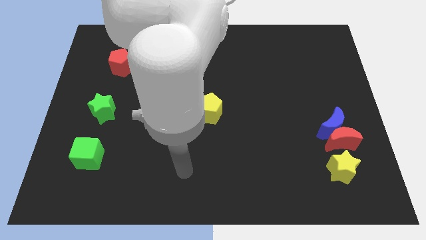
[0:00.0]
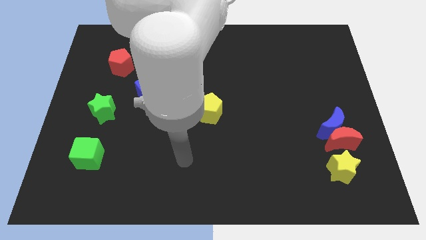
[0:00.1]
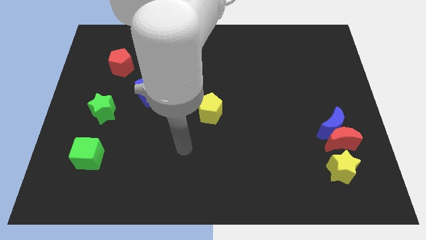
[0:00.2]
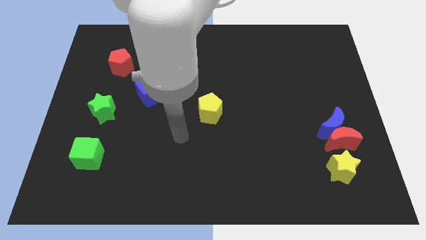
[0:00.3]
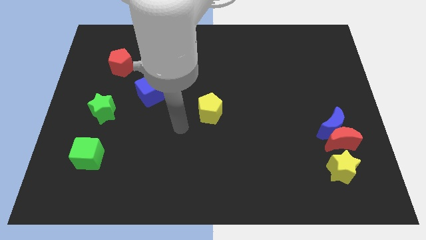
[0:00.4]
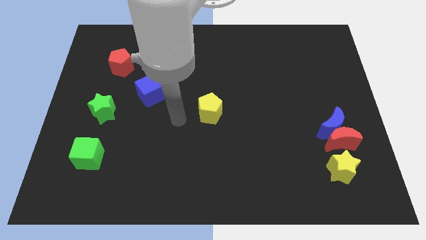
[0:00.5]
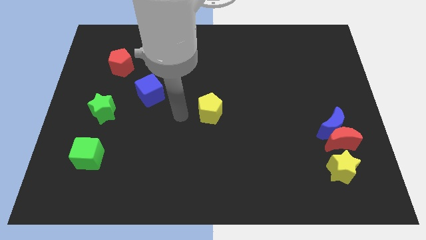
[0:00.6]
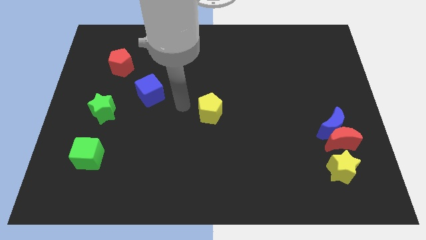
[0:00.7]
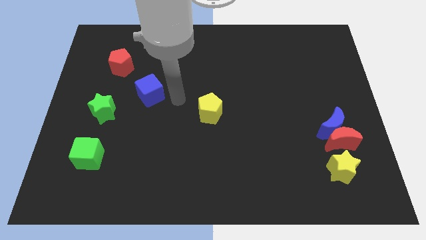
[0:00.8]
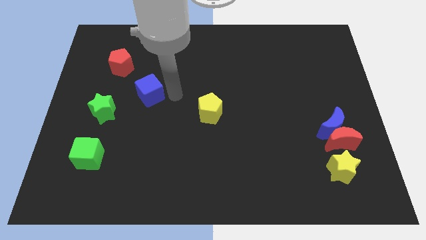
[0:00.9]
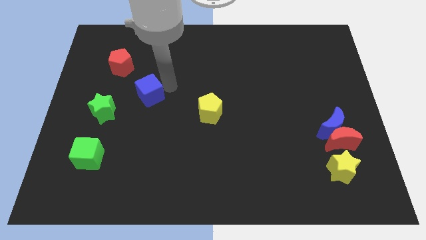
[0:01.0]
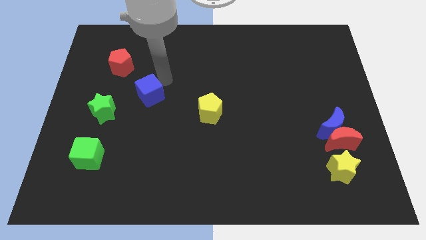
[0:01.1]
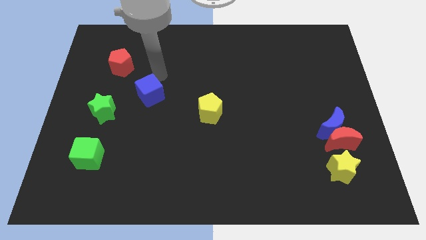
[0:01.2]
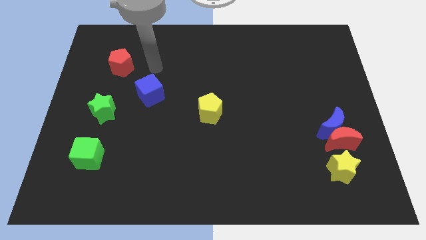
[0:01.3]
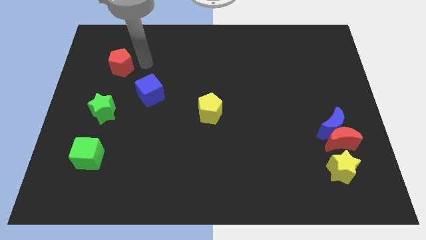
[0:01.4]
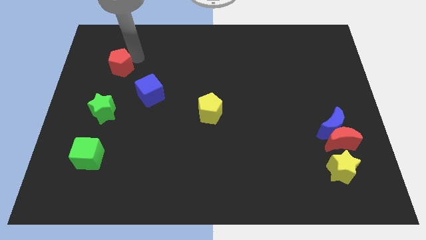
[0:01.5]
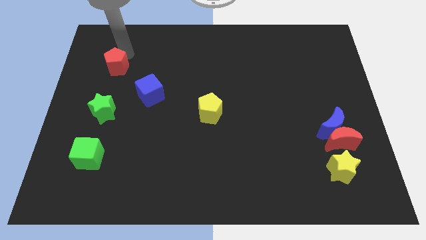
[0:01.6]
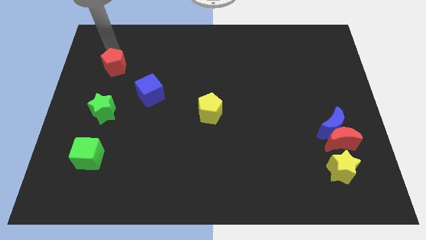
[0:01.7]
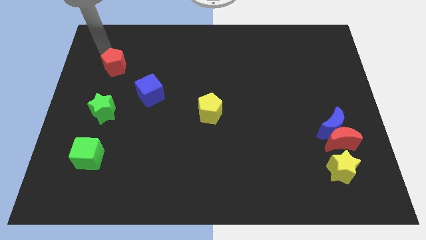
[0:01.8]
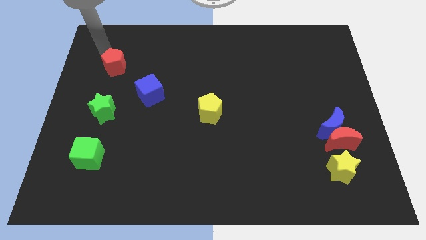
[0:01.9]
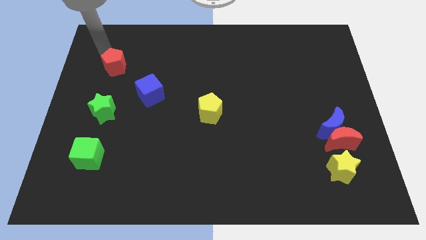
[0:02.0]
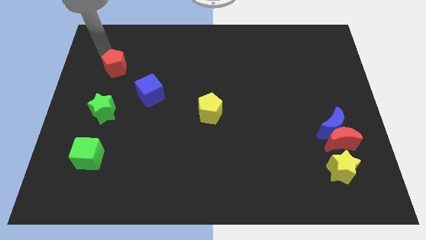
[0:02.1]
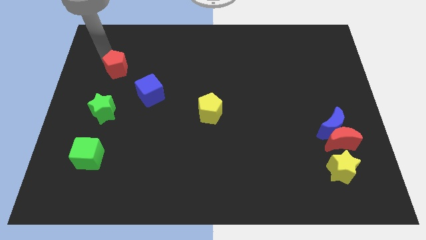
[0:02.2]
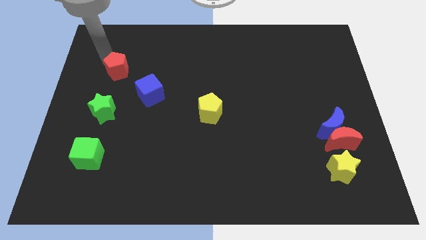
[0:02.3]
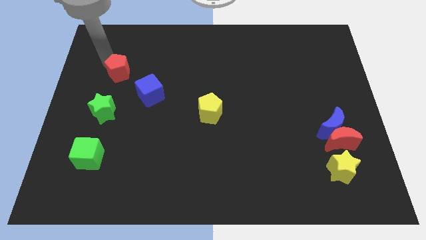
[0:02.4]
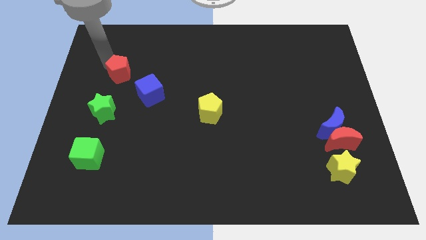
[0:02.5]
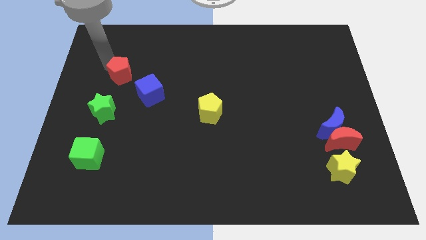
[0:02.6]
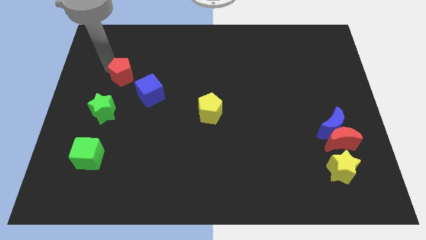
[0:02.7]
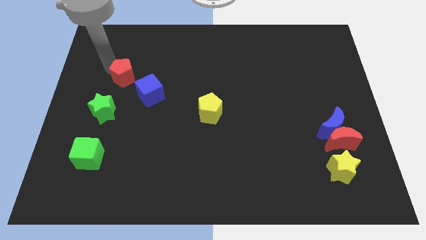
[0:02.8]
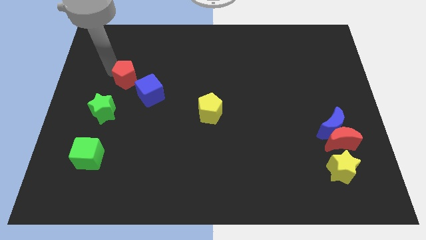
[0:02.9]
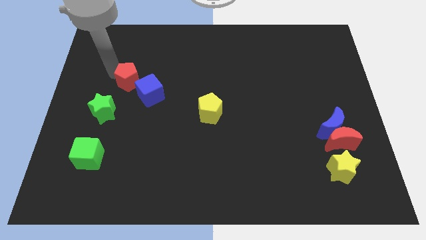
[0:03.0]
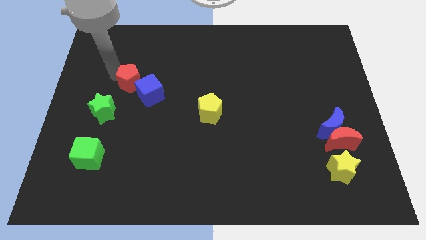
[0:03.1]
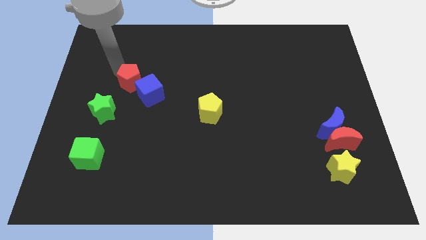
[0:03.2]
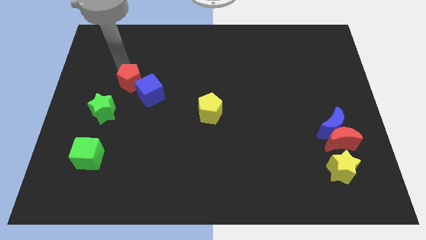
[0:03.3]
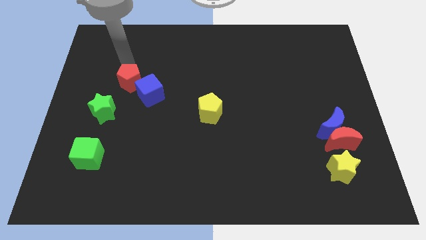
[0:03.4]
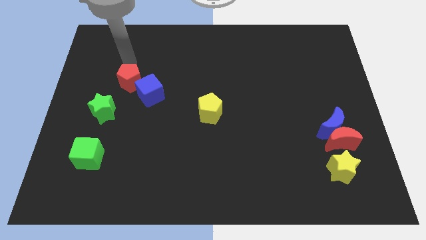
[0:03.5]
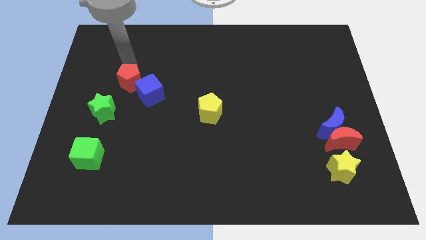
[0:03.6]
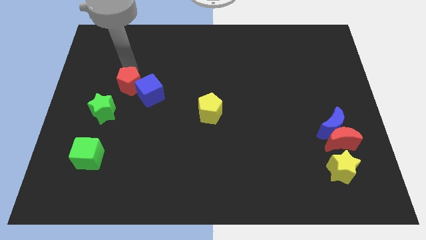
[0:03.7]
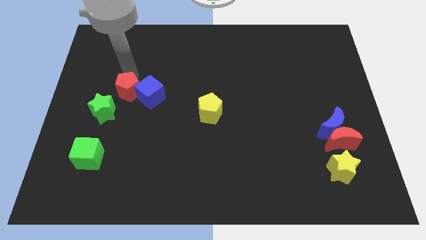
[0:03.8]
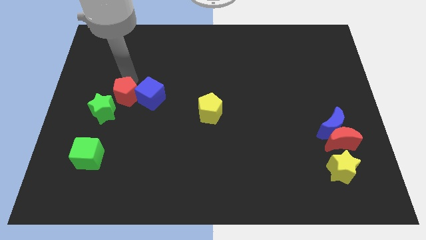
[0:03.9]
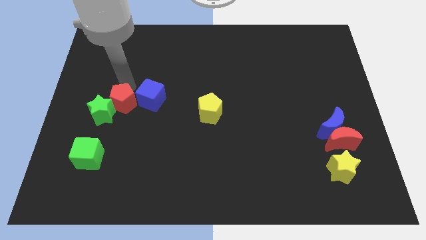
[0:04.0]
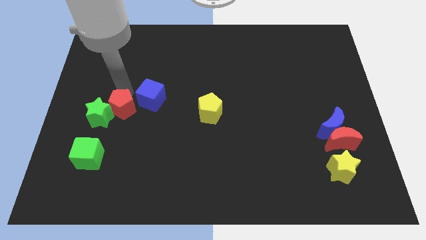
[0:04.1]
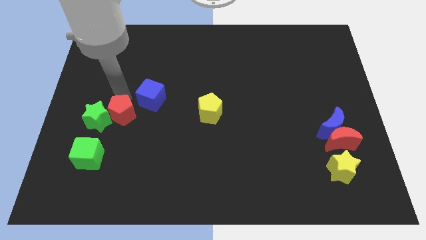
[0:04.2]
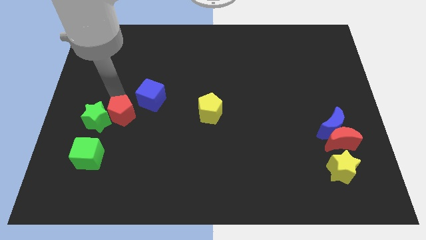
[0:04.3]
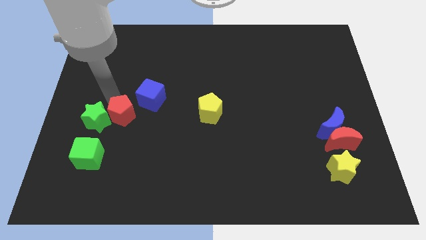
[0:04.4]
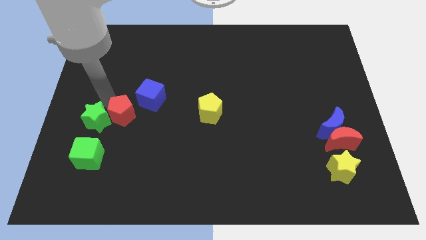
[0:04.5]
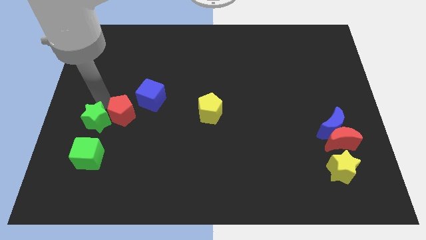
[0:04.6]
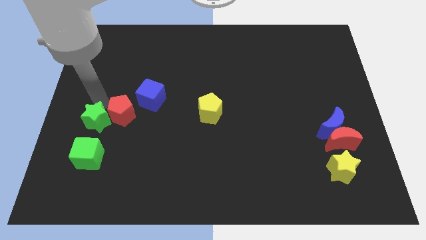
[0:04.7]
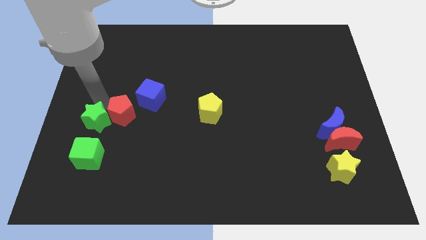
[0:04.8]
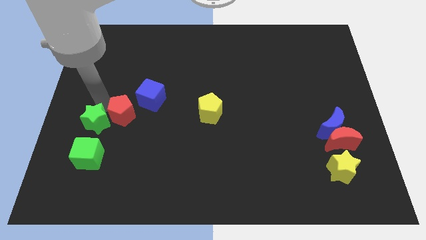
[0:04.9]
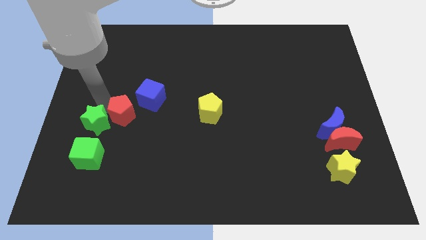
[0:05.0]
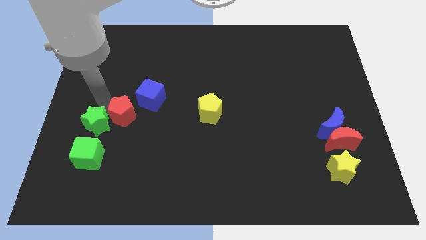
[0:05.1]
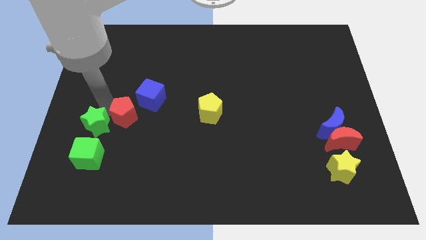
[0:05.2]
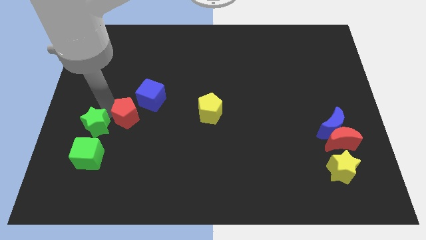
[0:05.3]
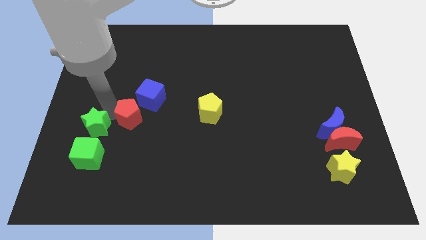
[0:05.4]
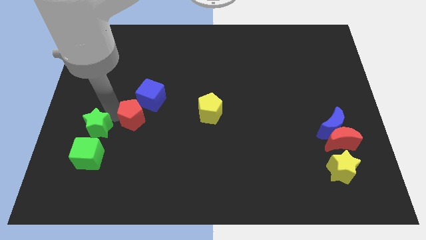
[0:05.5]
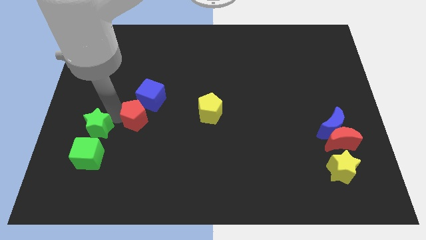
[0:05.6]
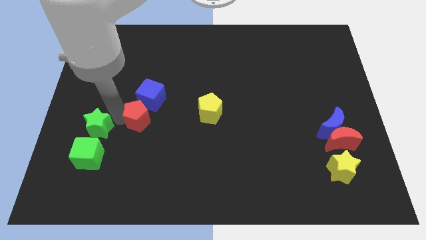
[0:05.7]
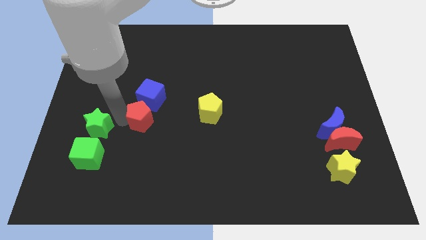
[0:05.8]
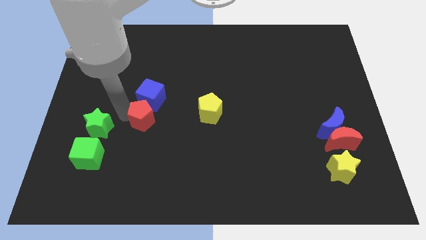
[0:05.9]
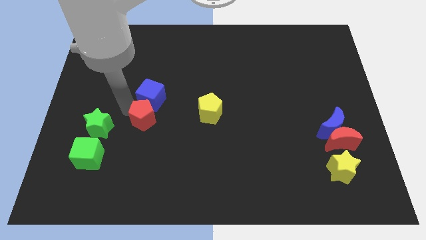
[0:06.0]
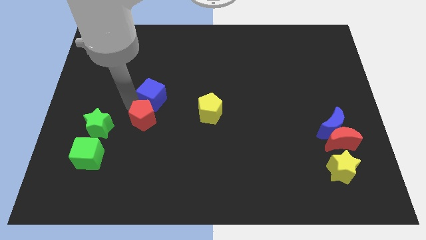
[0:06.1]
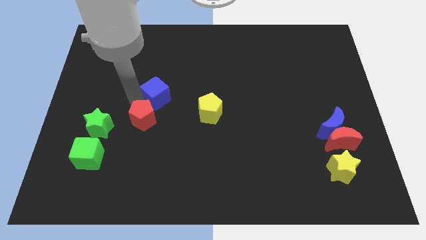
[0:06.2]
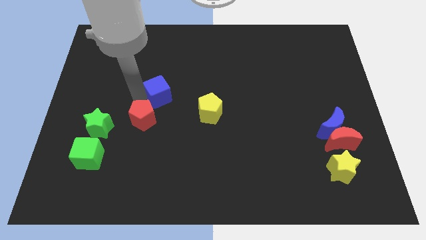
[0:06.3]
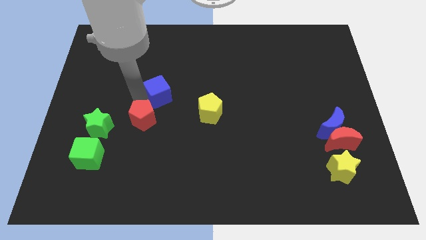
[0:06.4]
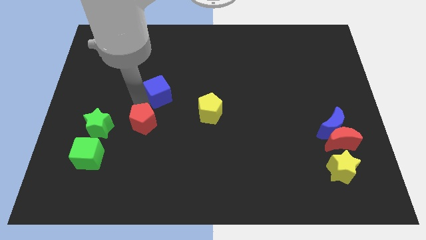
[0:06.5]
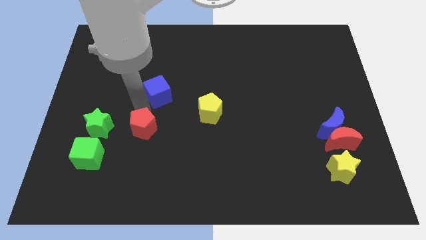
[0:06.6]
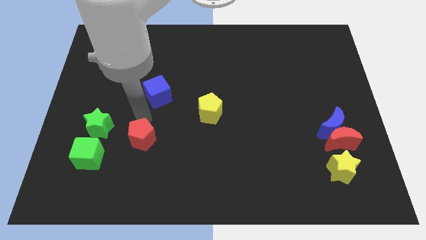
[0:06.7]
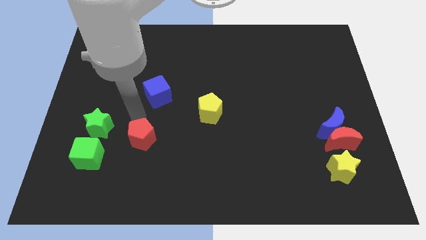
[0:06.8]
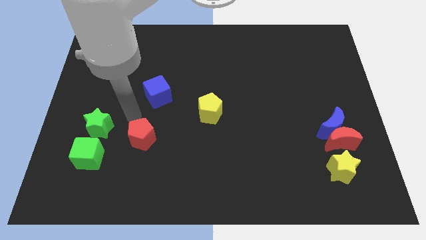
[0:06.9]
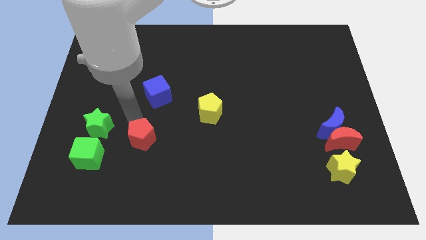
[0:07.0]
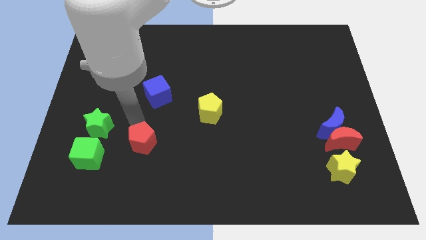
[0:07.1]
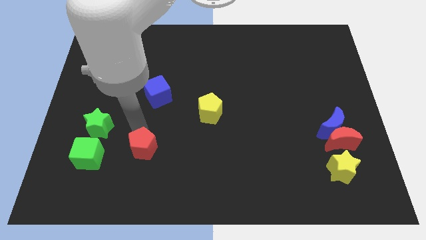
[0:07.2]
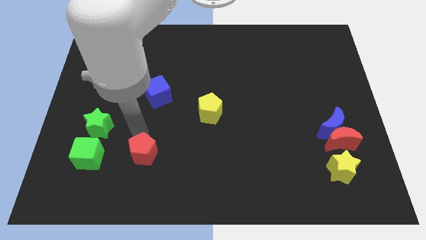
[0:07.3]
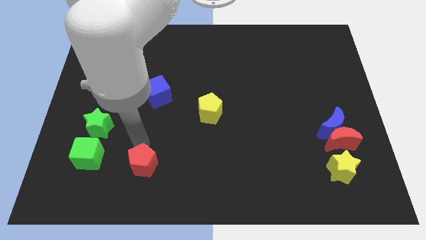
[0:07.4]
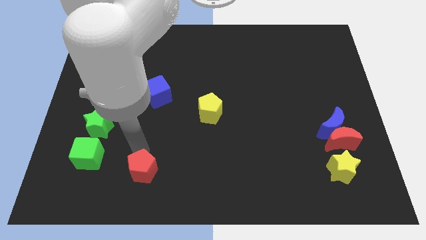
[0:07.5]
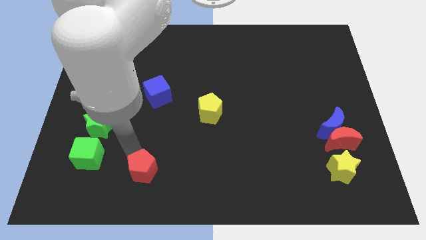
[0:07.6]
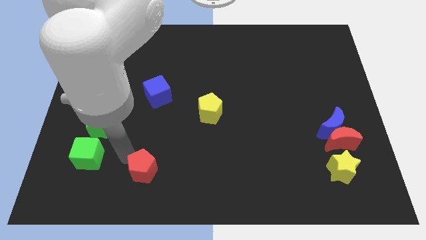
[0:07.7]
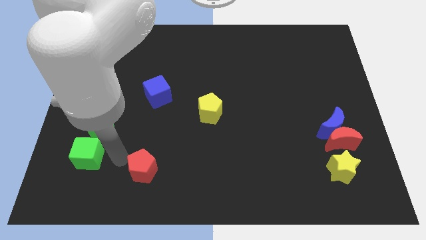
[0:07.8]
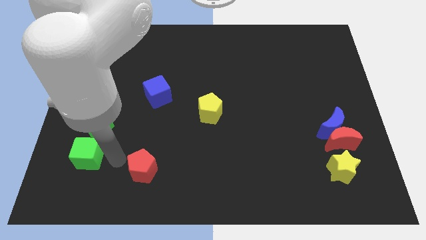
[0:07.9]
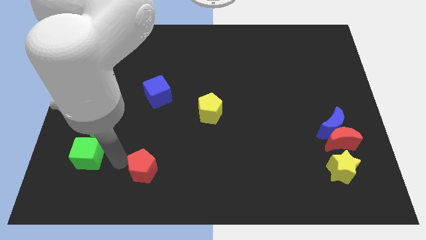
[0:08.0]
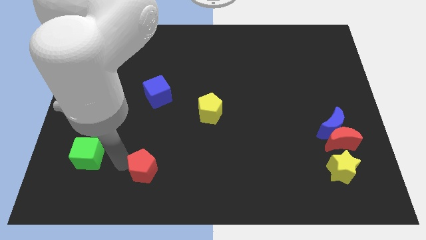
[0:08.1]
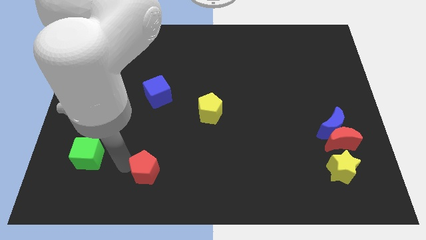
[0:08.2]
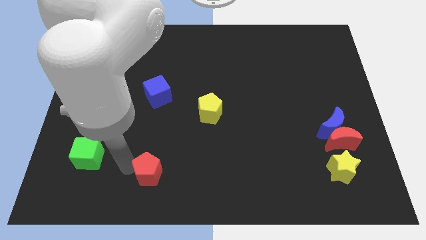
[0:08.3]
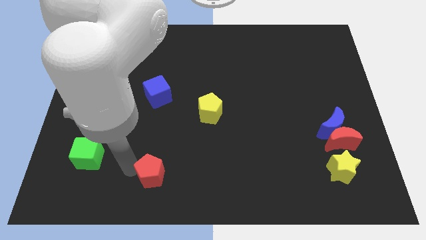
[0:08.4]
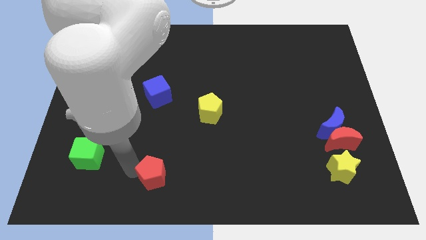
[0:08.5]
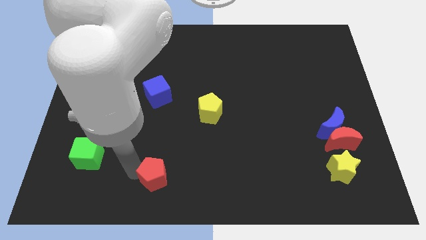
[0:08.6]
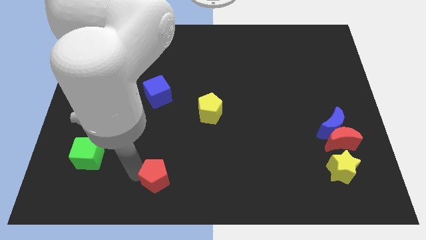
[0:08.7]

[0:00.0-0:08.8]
put the red pentagon to the bottom side
